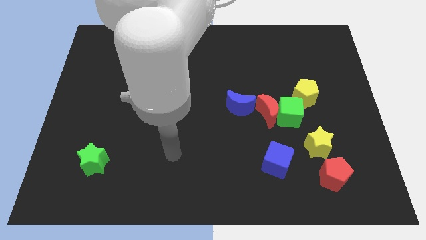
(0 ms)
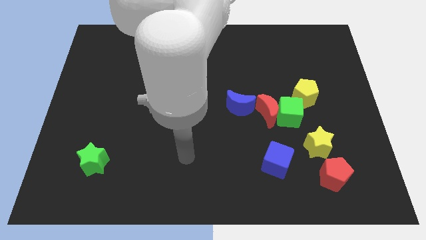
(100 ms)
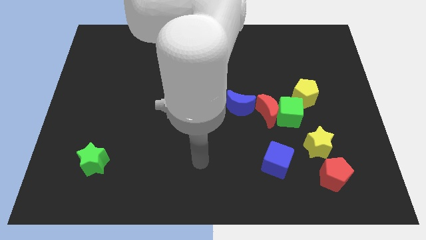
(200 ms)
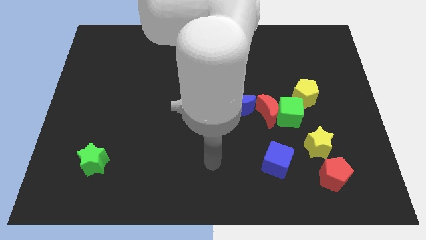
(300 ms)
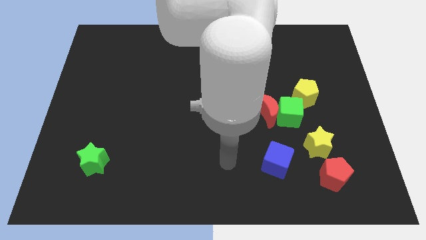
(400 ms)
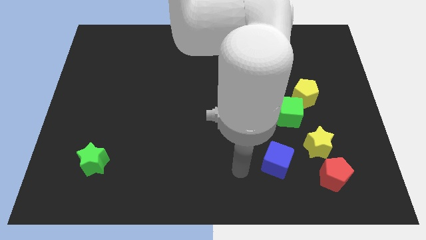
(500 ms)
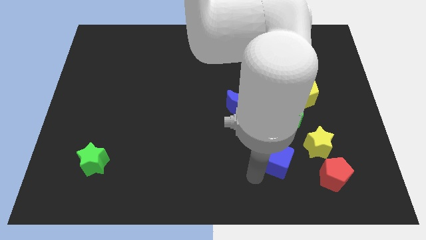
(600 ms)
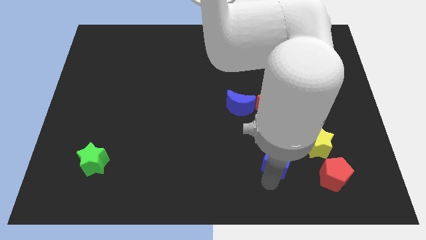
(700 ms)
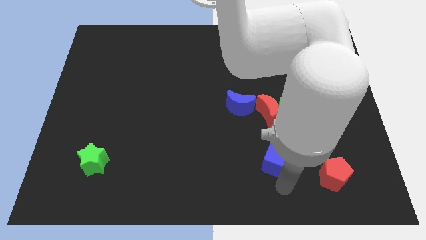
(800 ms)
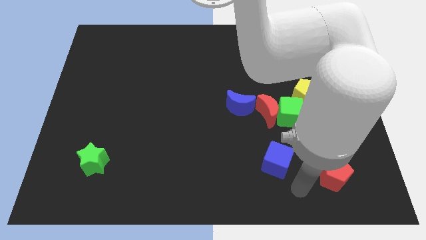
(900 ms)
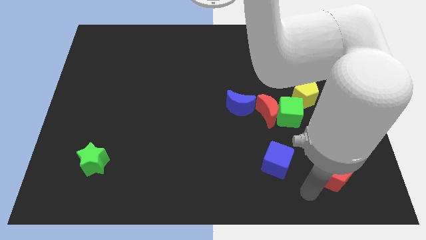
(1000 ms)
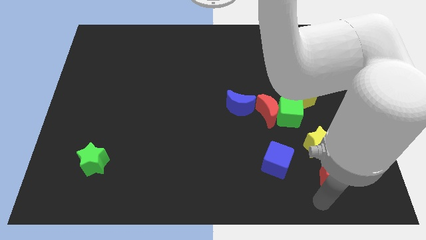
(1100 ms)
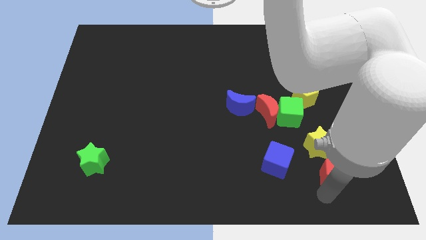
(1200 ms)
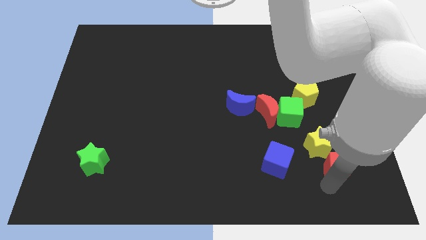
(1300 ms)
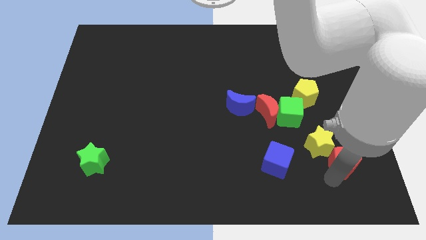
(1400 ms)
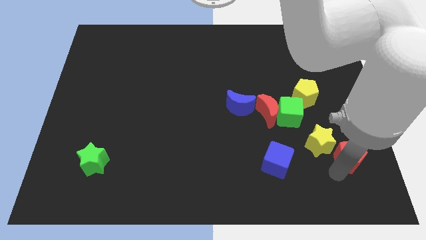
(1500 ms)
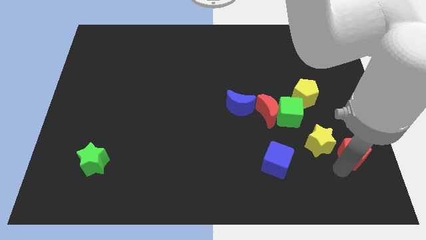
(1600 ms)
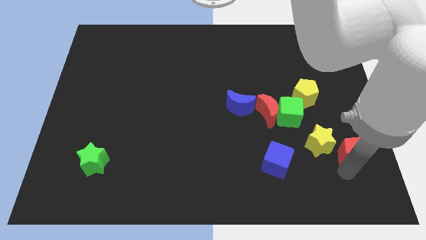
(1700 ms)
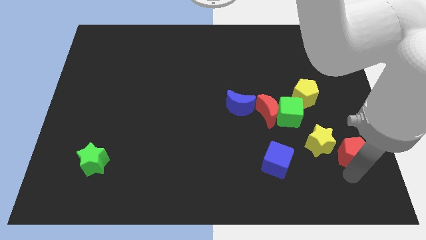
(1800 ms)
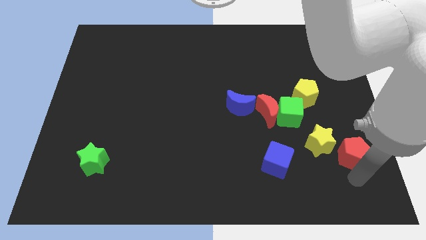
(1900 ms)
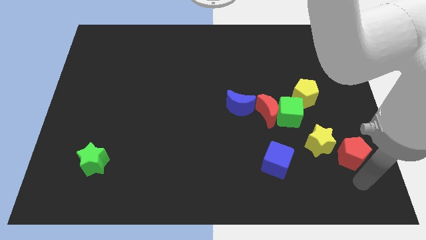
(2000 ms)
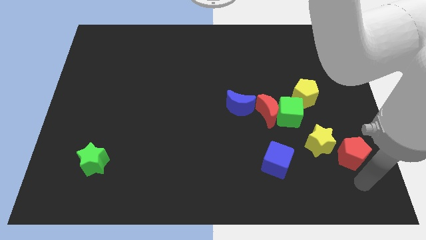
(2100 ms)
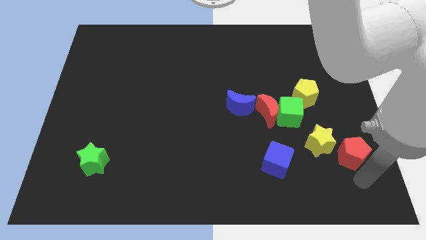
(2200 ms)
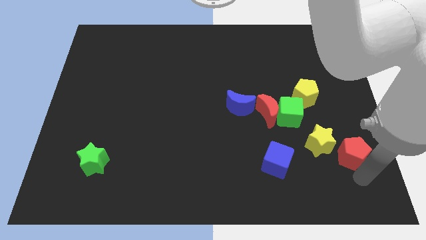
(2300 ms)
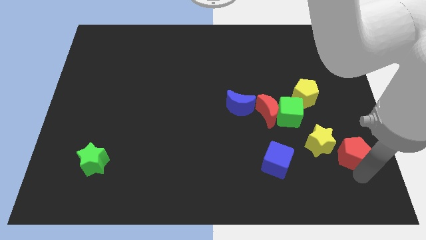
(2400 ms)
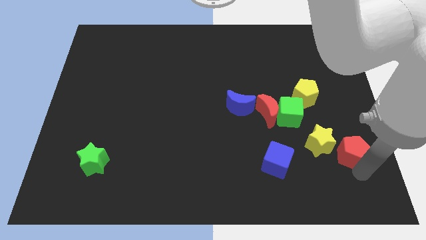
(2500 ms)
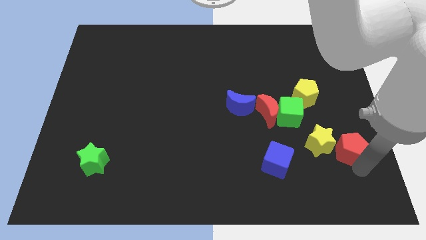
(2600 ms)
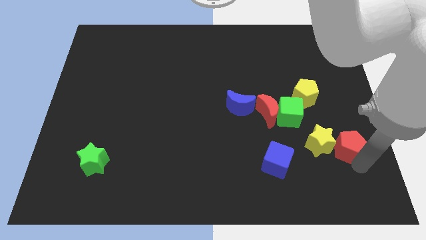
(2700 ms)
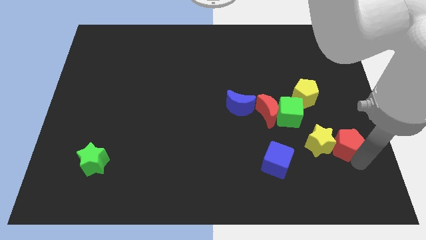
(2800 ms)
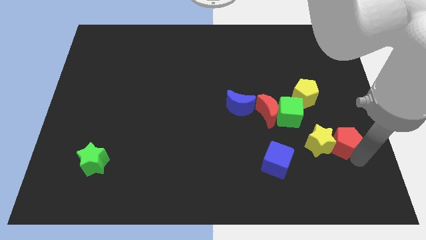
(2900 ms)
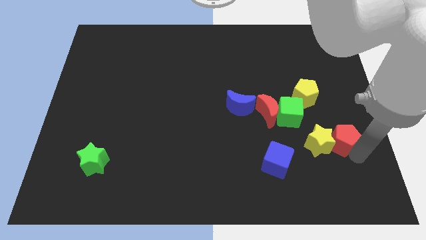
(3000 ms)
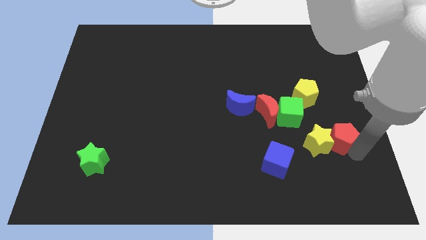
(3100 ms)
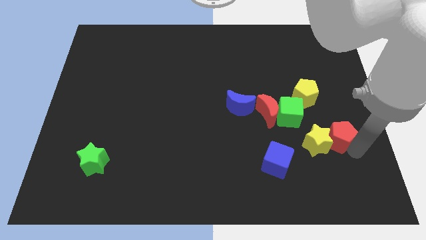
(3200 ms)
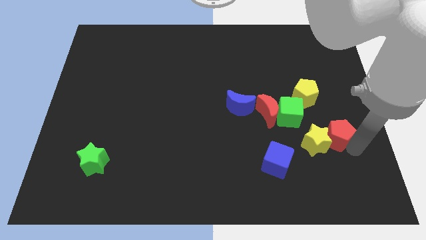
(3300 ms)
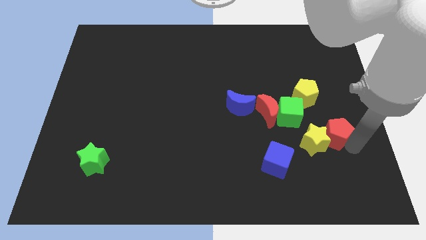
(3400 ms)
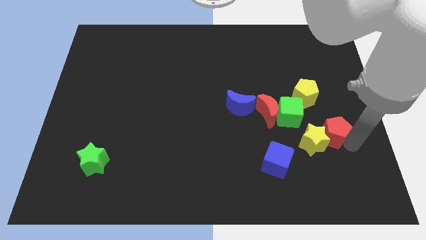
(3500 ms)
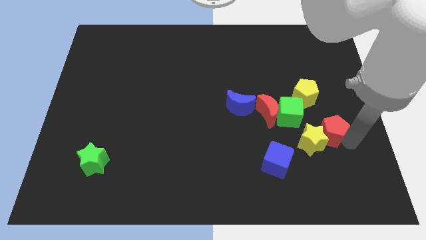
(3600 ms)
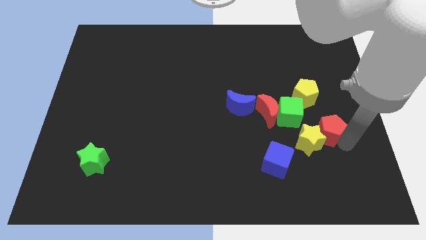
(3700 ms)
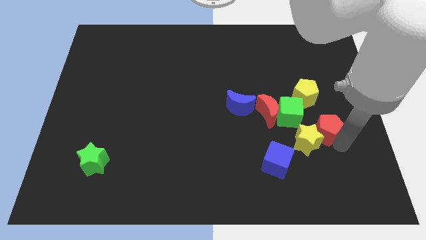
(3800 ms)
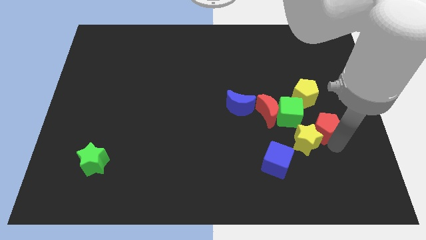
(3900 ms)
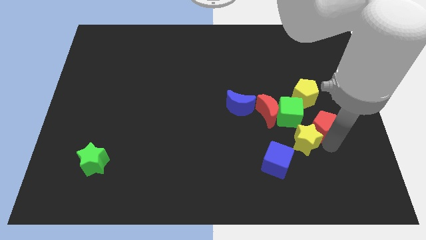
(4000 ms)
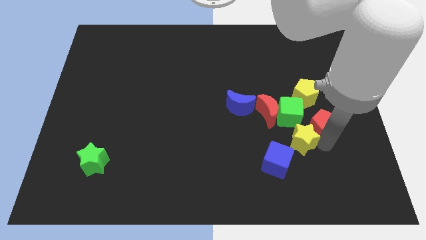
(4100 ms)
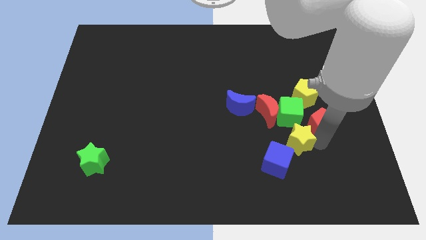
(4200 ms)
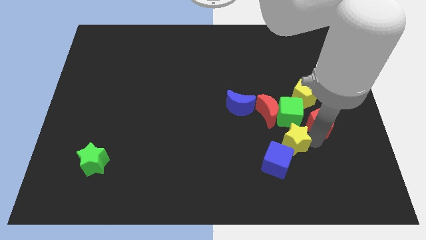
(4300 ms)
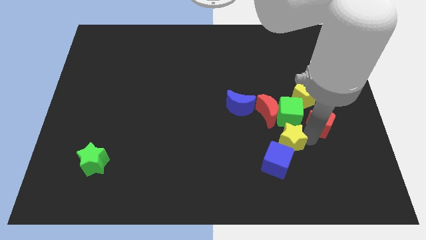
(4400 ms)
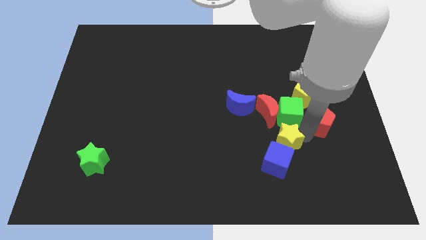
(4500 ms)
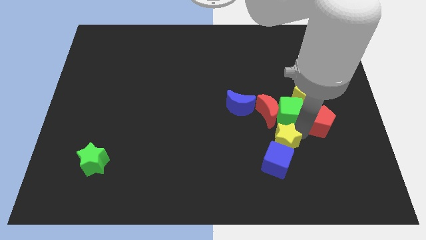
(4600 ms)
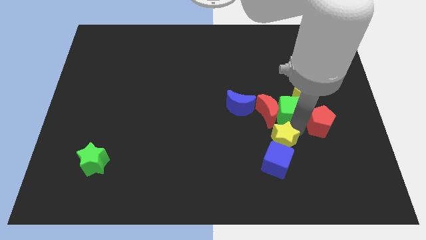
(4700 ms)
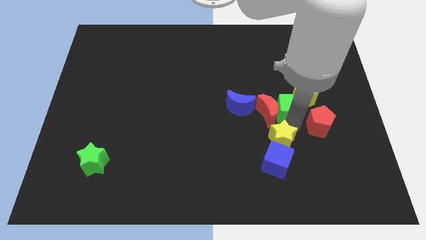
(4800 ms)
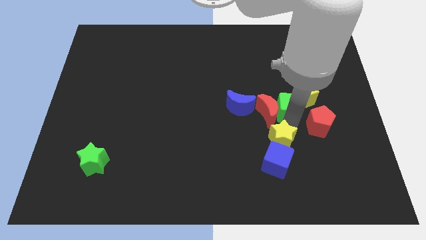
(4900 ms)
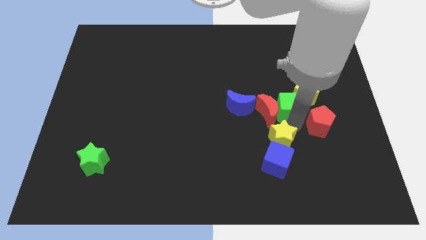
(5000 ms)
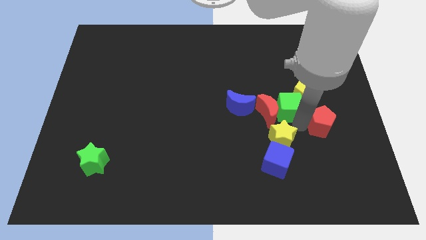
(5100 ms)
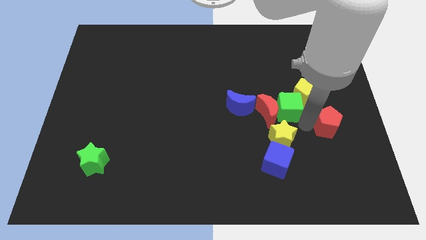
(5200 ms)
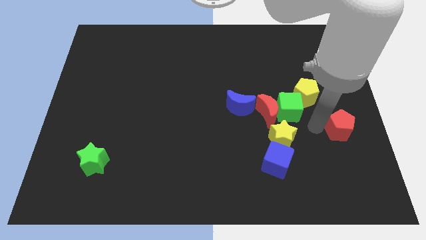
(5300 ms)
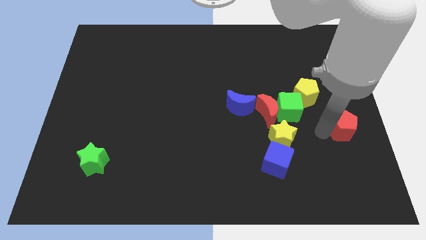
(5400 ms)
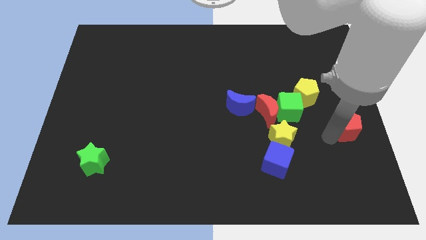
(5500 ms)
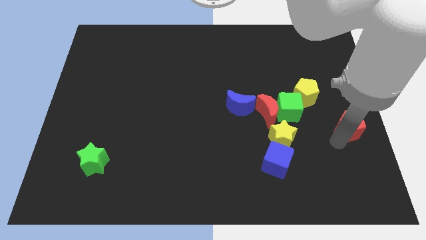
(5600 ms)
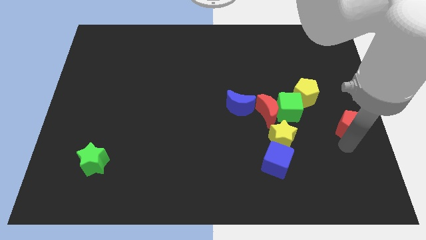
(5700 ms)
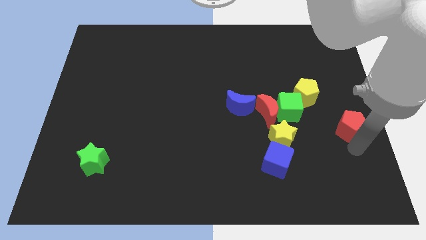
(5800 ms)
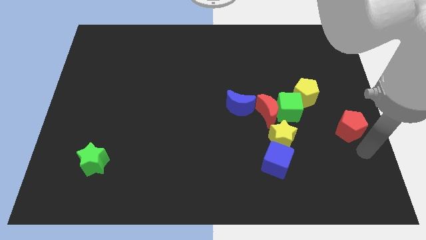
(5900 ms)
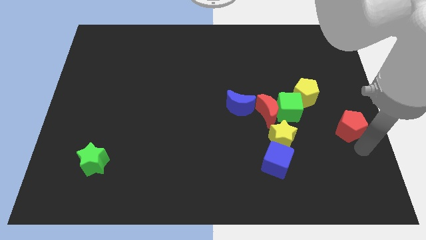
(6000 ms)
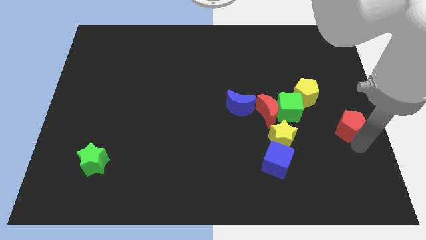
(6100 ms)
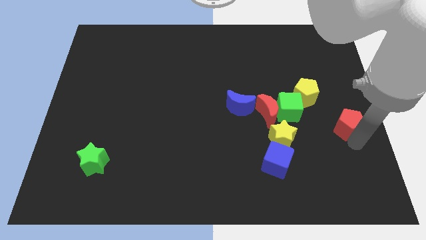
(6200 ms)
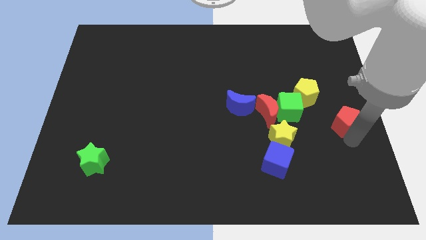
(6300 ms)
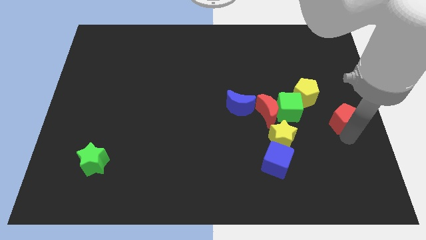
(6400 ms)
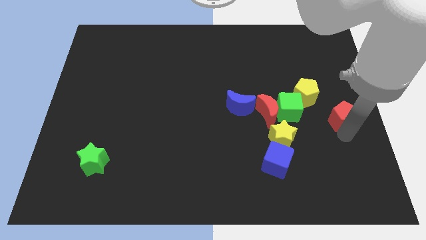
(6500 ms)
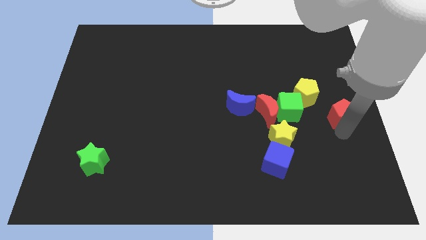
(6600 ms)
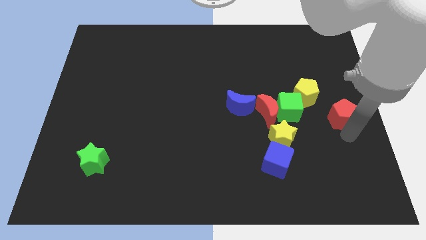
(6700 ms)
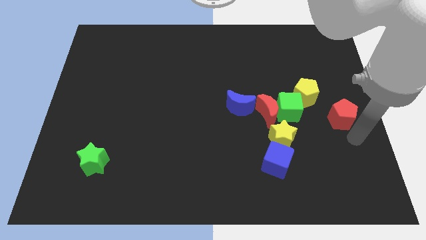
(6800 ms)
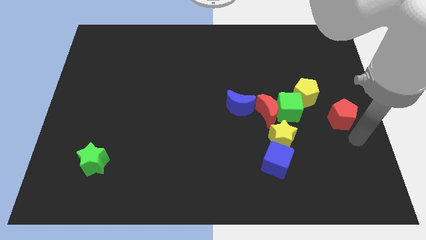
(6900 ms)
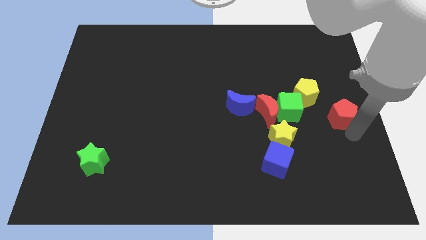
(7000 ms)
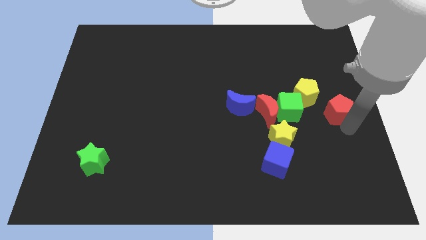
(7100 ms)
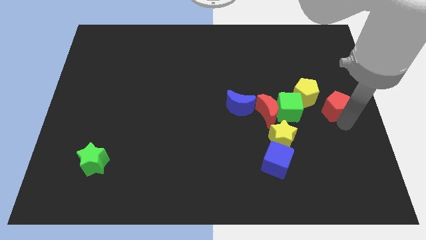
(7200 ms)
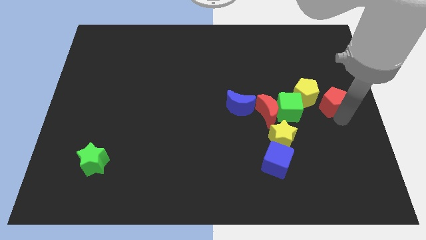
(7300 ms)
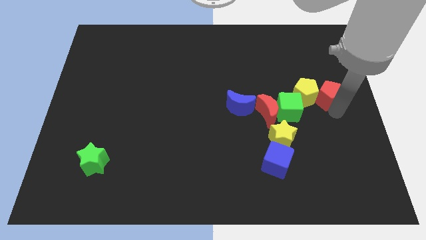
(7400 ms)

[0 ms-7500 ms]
slide the red pentagon upwards

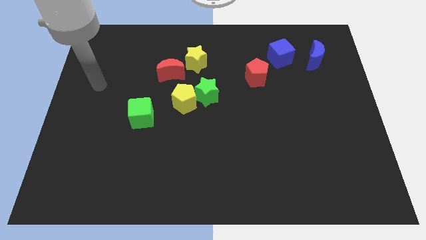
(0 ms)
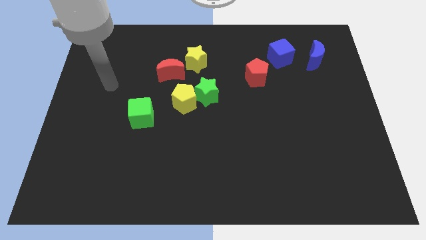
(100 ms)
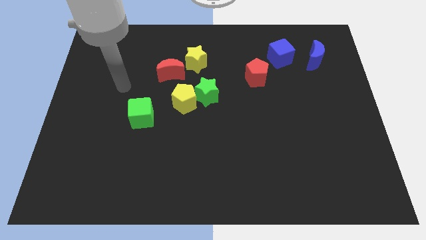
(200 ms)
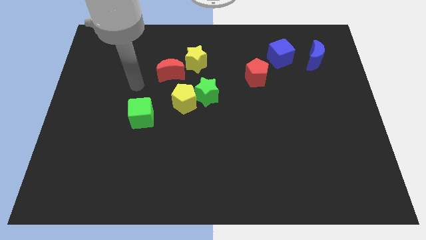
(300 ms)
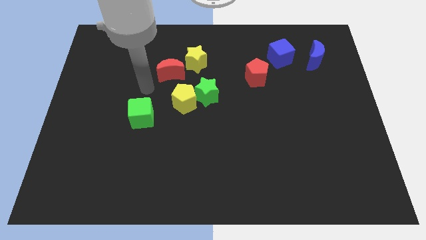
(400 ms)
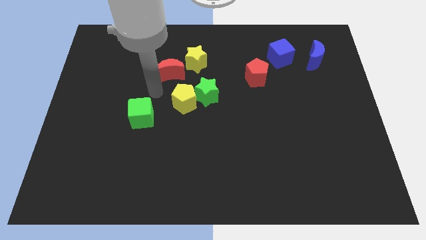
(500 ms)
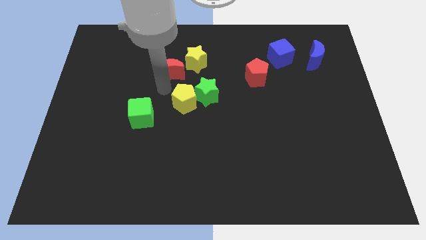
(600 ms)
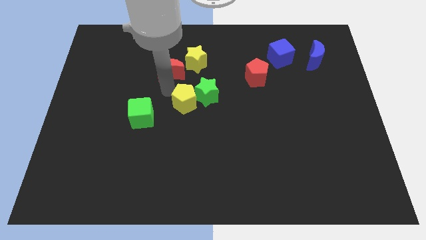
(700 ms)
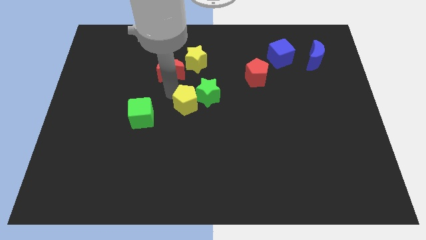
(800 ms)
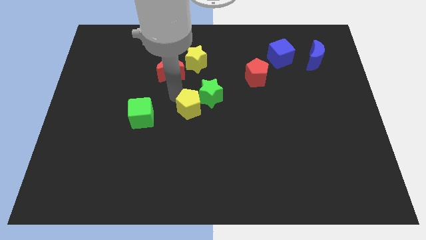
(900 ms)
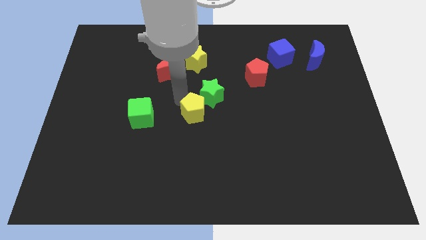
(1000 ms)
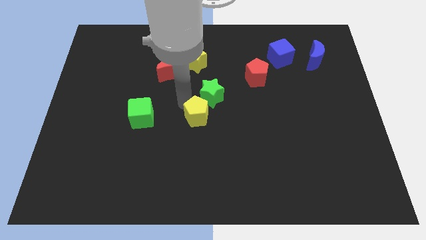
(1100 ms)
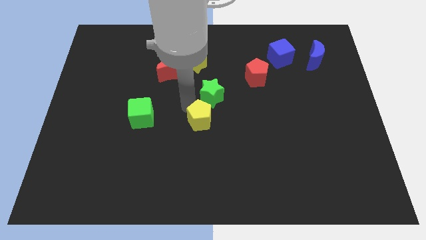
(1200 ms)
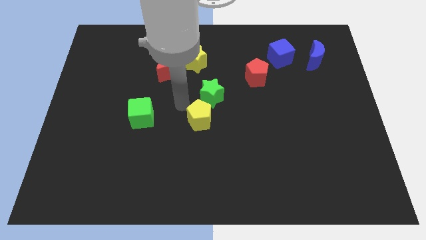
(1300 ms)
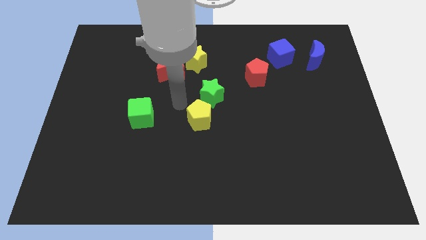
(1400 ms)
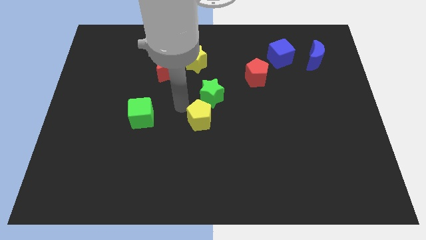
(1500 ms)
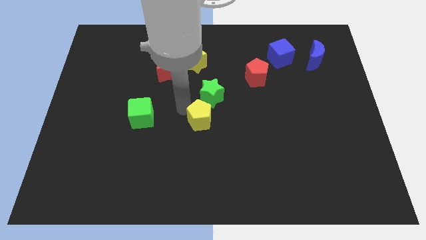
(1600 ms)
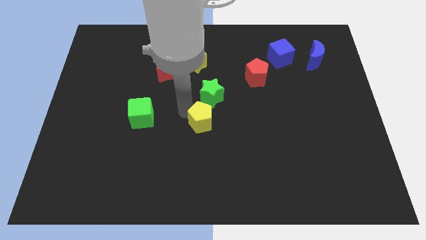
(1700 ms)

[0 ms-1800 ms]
slide the yellow pentagon diagonally down and right slightly
